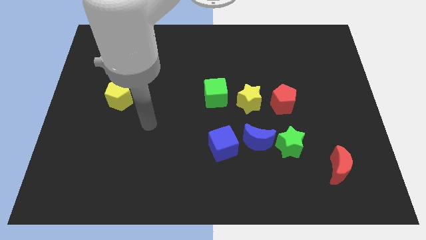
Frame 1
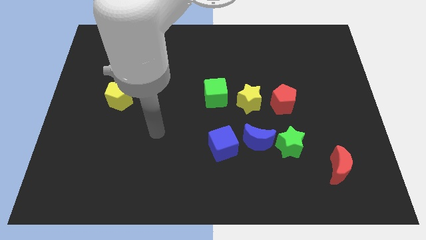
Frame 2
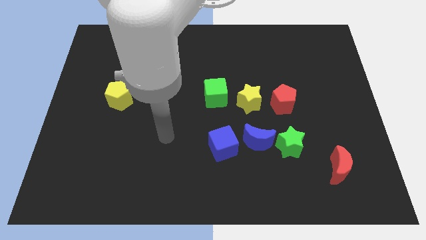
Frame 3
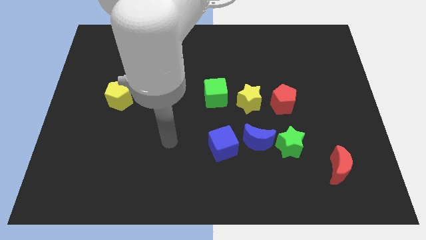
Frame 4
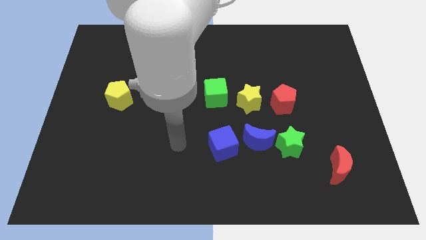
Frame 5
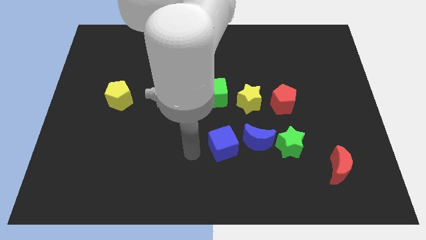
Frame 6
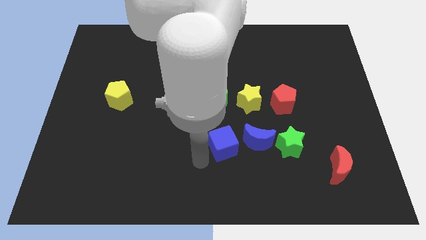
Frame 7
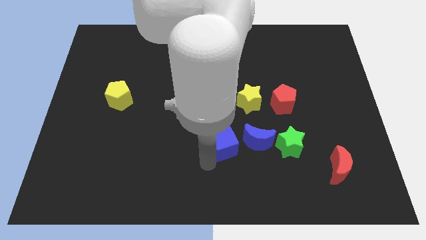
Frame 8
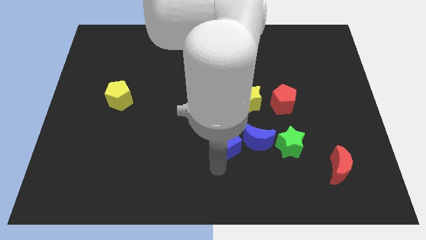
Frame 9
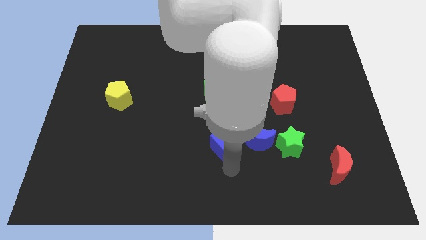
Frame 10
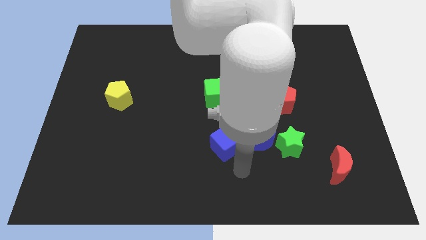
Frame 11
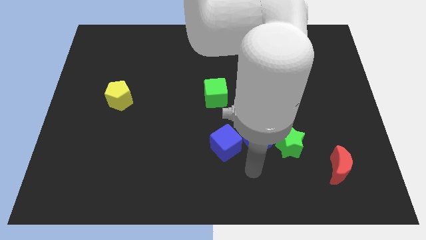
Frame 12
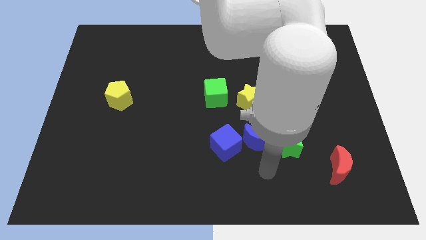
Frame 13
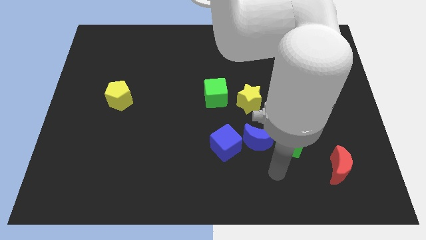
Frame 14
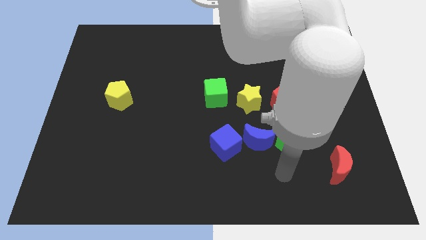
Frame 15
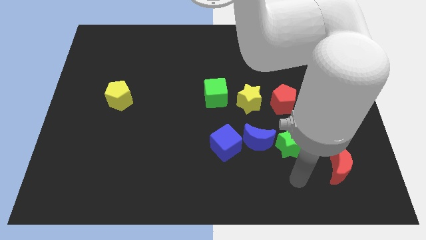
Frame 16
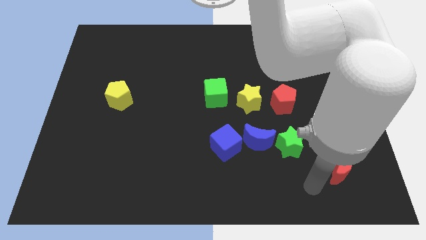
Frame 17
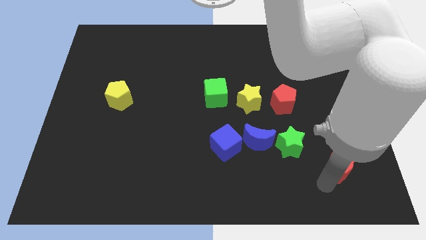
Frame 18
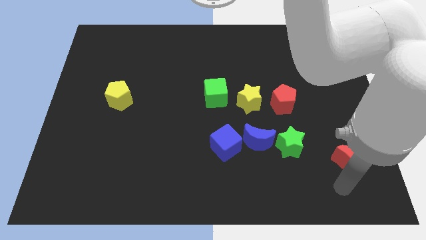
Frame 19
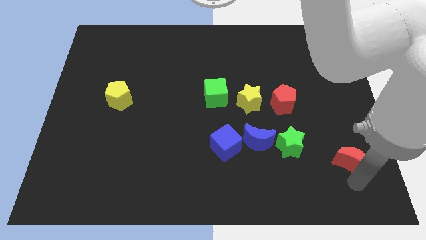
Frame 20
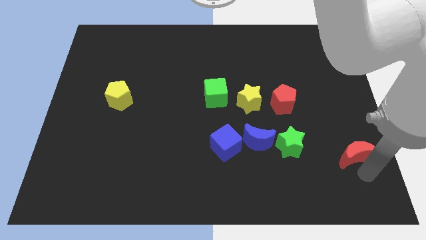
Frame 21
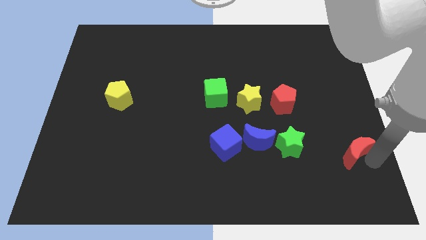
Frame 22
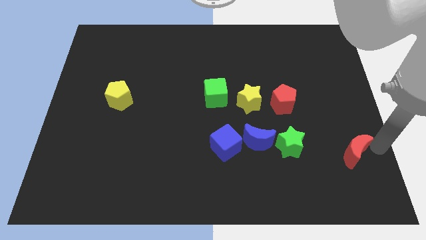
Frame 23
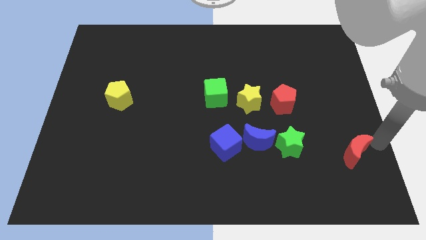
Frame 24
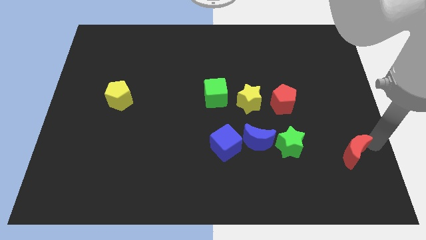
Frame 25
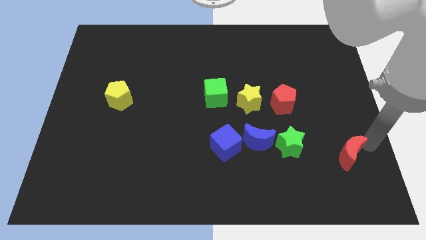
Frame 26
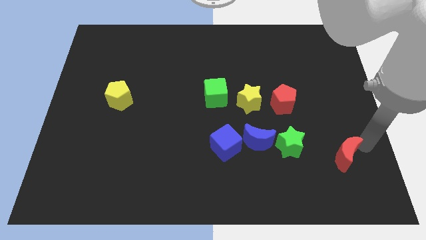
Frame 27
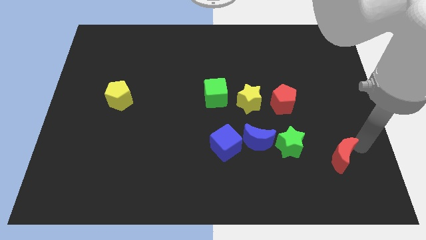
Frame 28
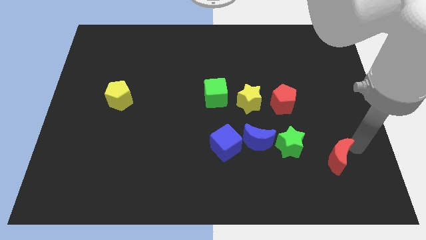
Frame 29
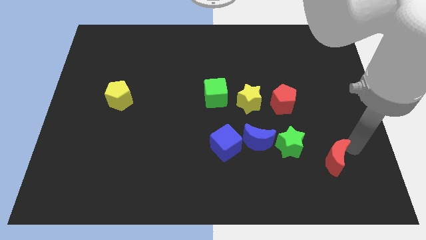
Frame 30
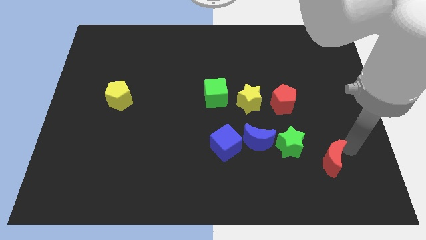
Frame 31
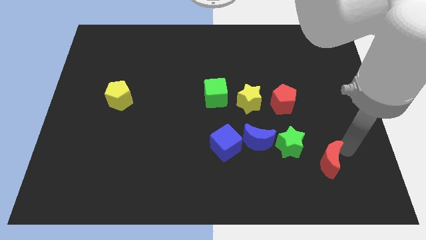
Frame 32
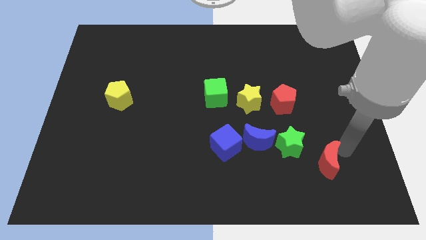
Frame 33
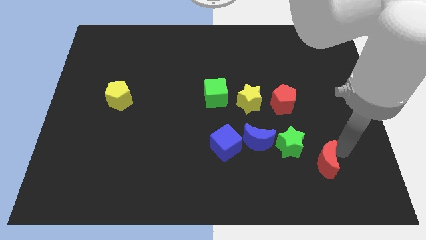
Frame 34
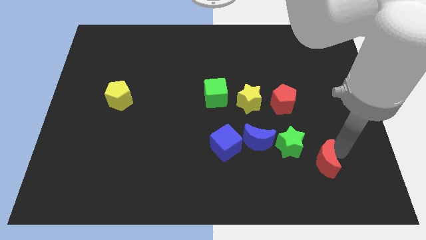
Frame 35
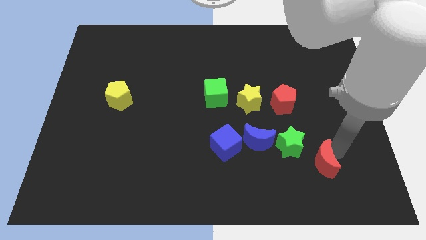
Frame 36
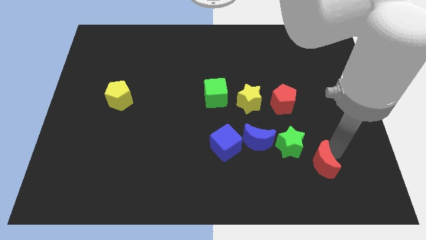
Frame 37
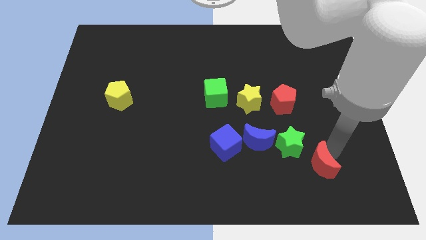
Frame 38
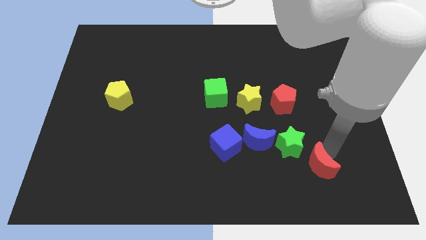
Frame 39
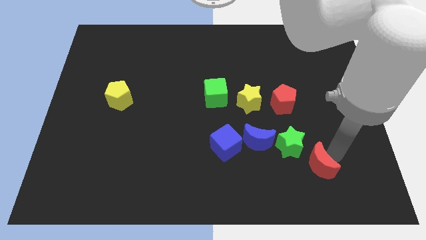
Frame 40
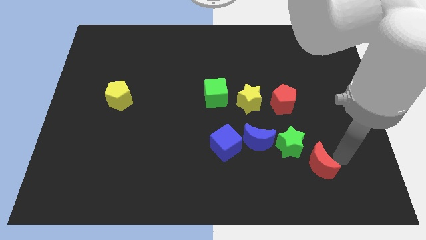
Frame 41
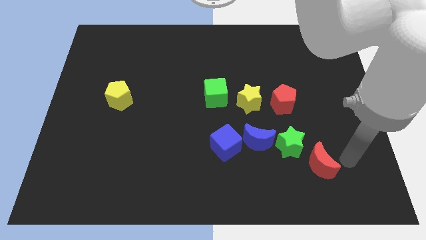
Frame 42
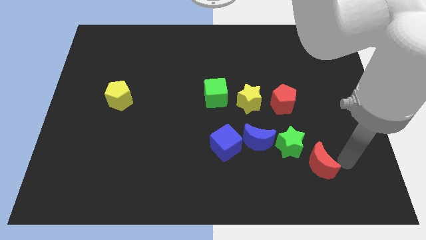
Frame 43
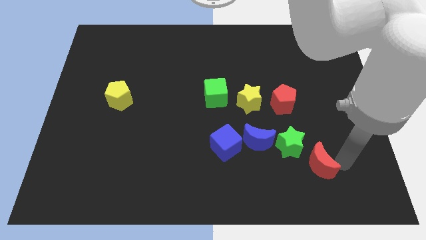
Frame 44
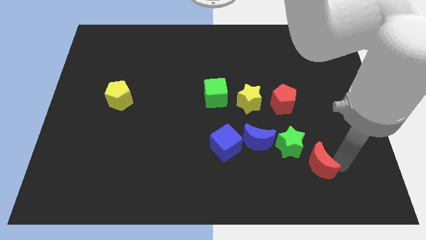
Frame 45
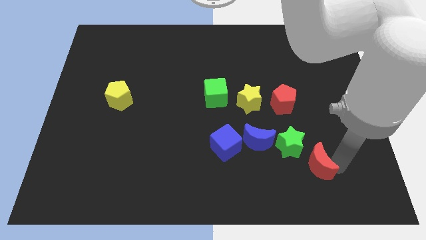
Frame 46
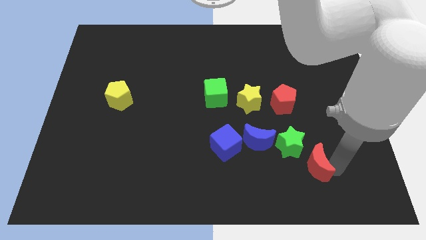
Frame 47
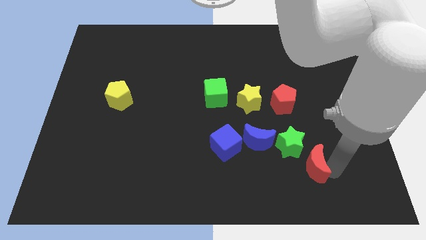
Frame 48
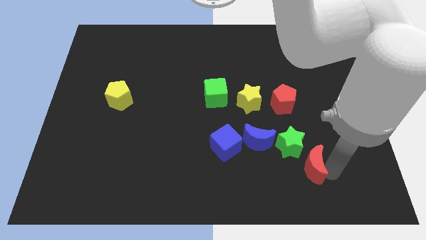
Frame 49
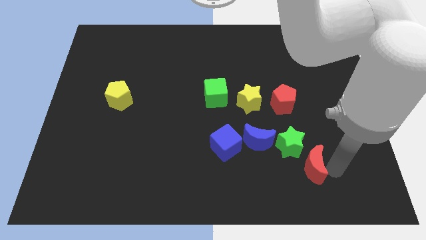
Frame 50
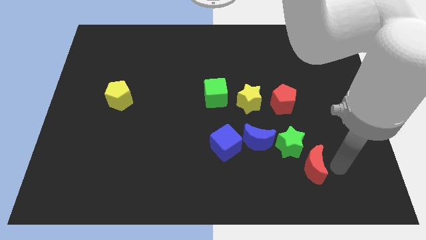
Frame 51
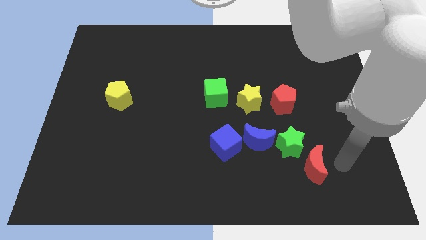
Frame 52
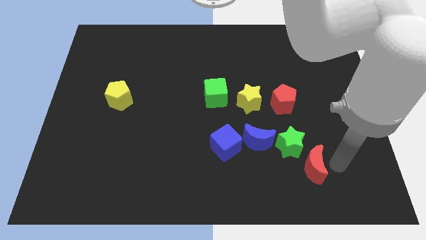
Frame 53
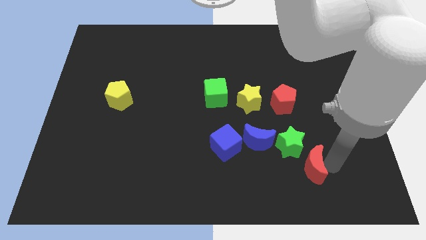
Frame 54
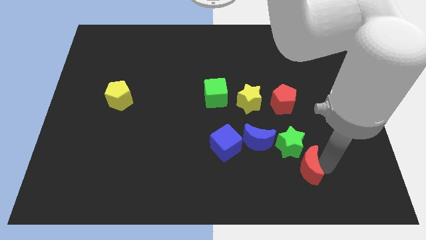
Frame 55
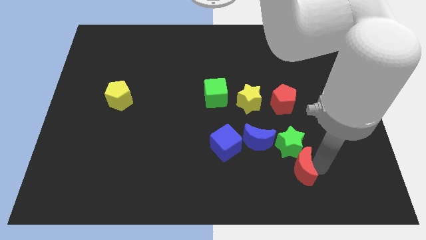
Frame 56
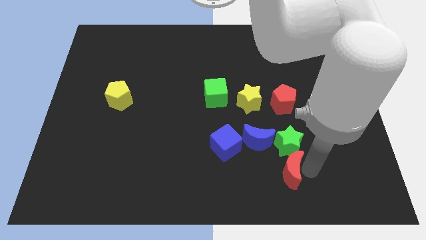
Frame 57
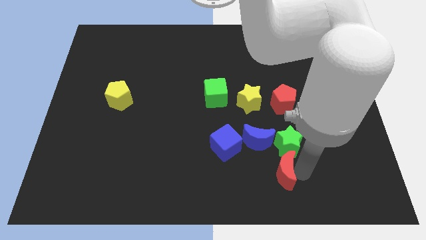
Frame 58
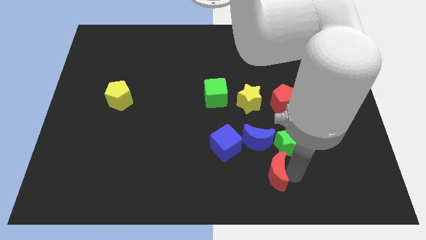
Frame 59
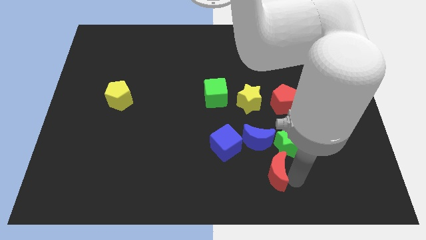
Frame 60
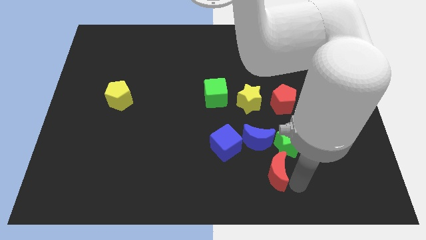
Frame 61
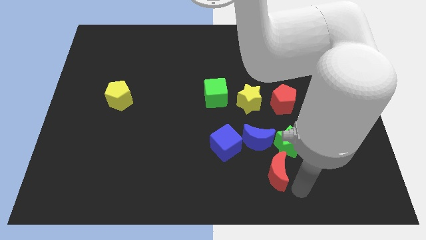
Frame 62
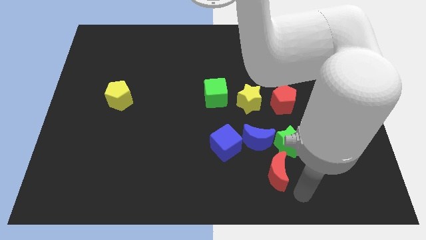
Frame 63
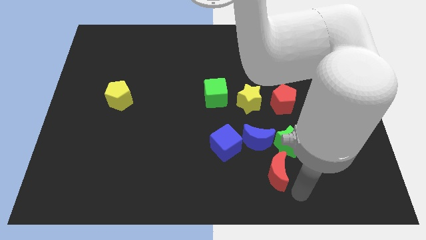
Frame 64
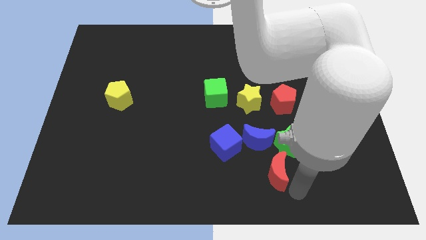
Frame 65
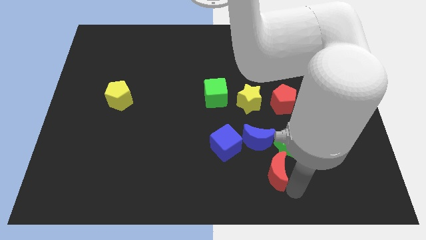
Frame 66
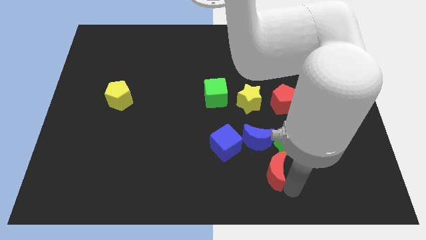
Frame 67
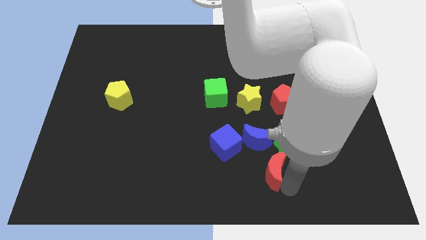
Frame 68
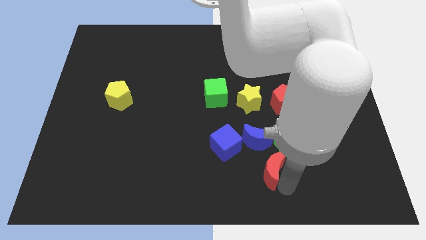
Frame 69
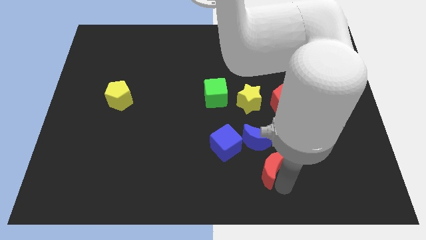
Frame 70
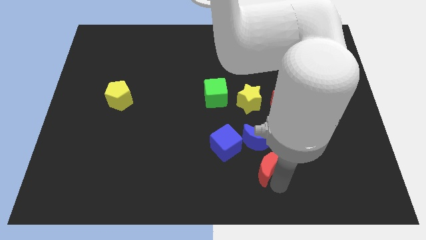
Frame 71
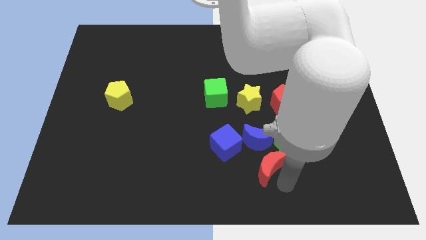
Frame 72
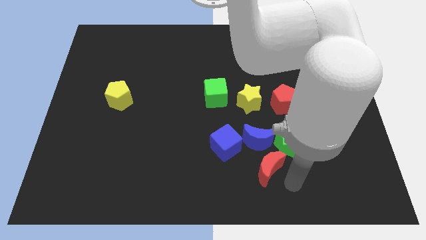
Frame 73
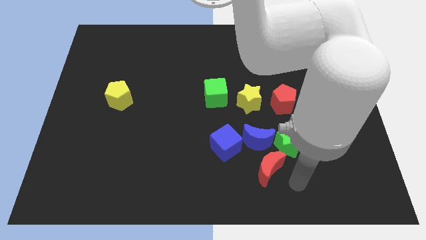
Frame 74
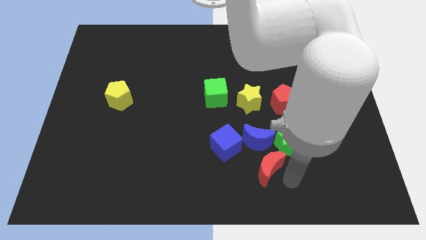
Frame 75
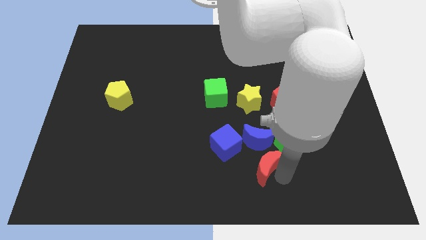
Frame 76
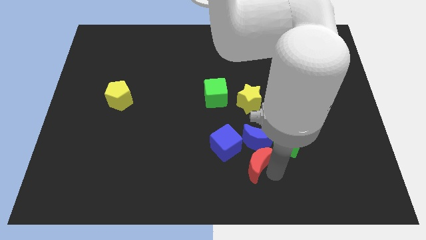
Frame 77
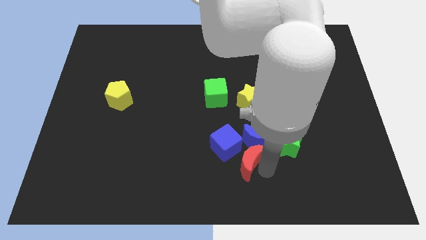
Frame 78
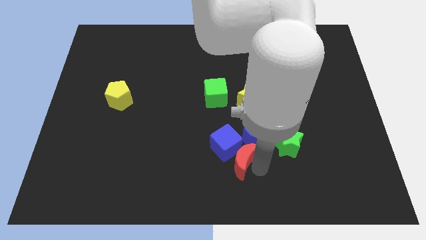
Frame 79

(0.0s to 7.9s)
push the red moon close to the blue cube
